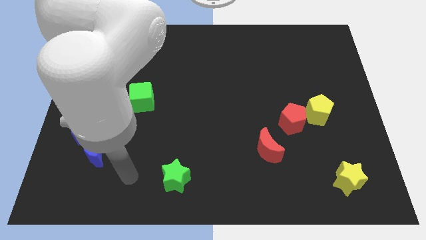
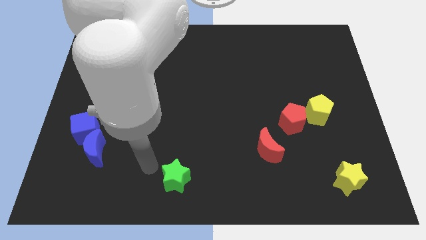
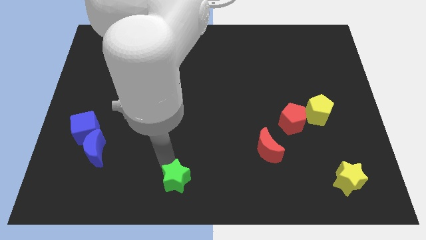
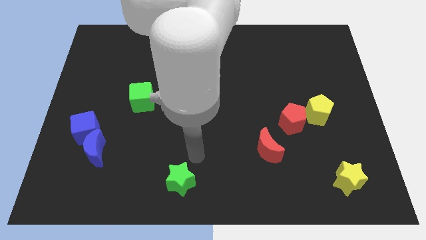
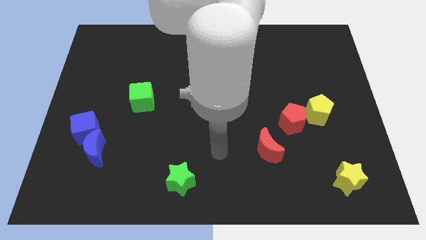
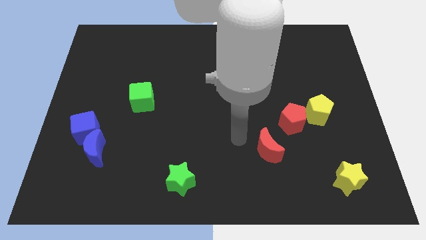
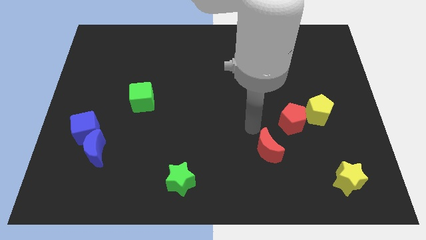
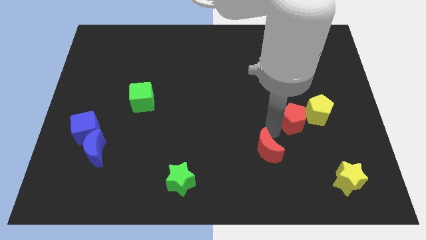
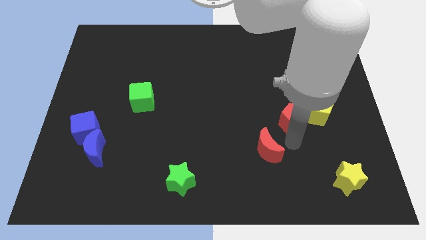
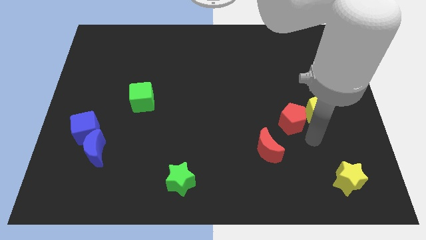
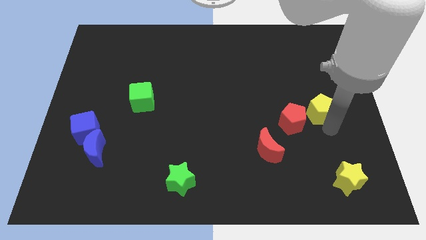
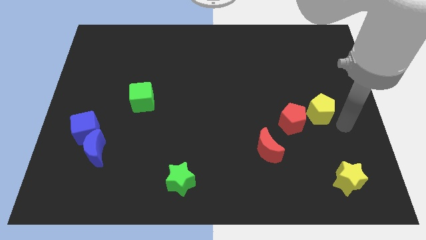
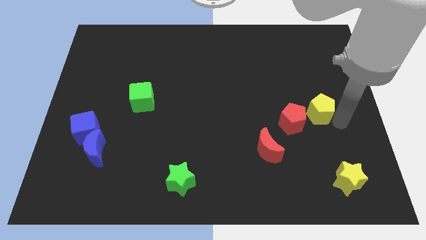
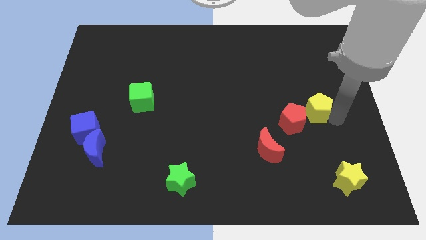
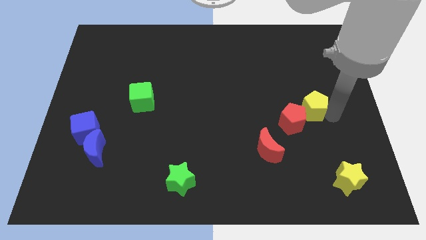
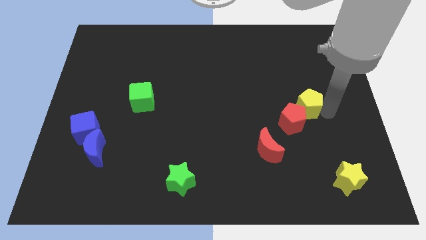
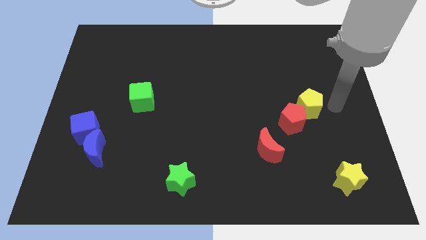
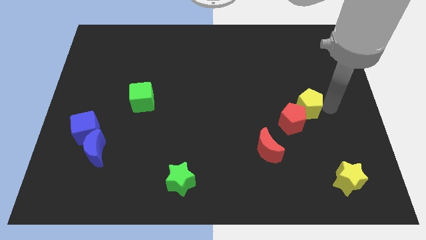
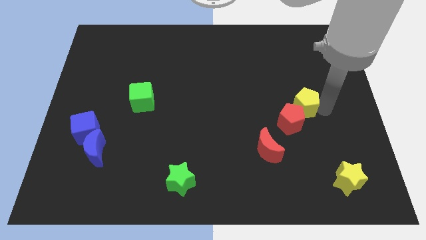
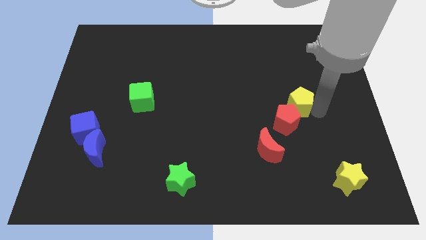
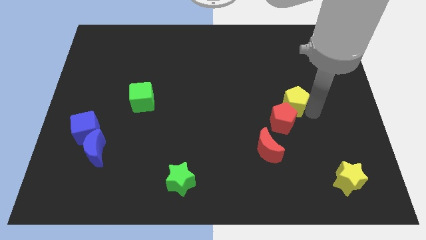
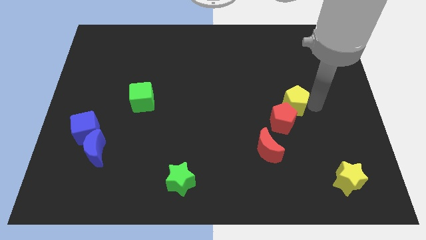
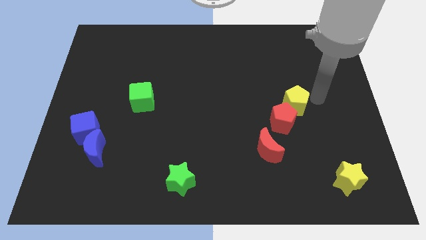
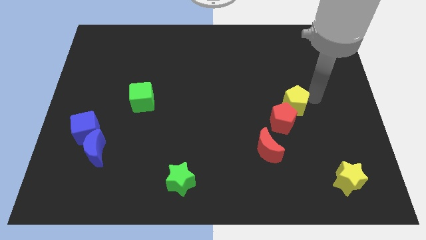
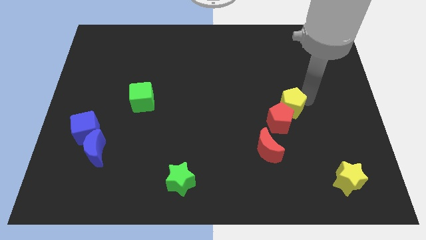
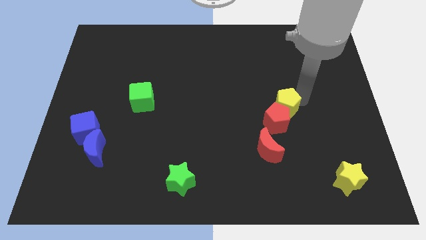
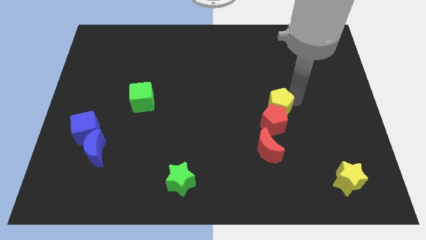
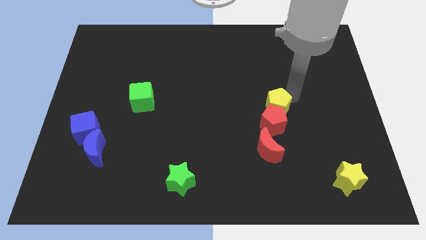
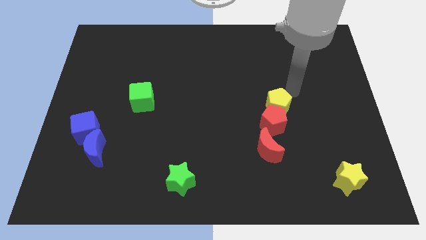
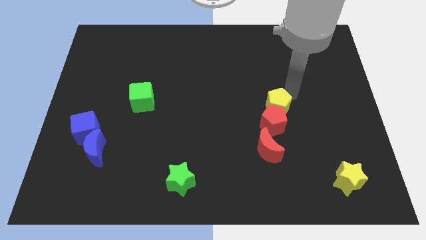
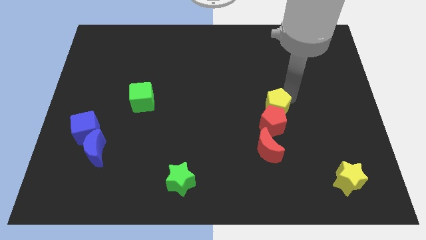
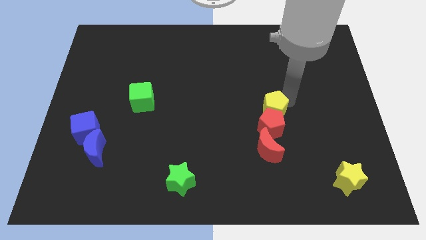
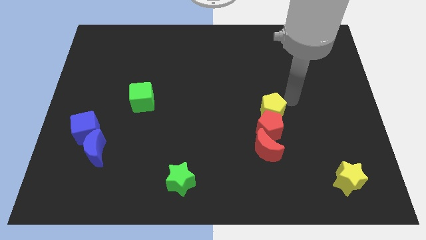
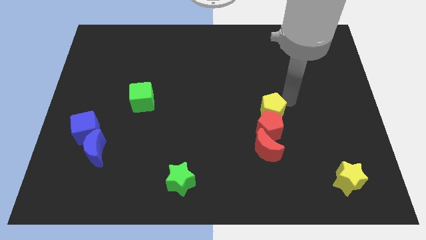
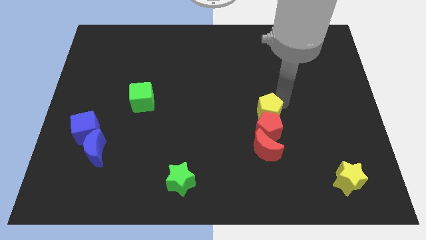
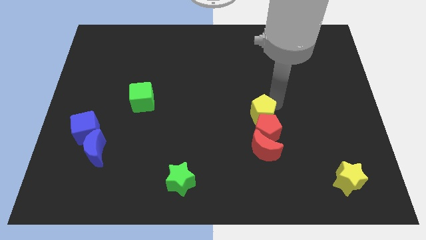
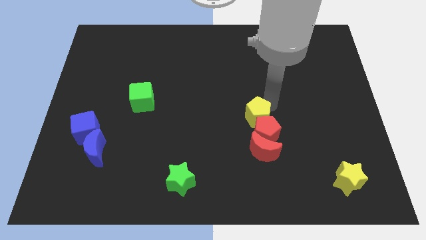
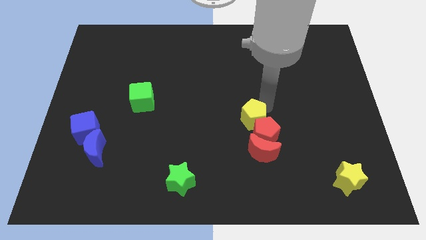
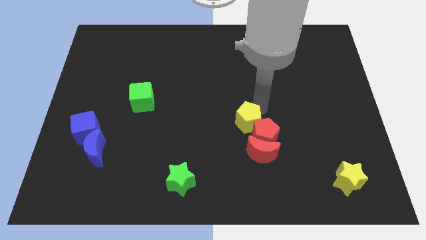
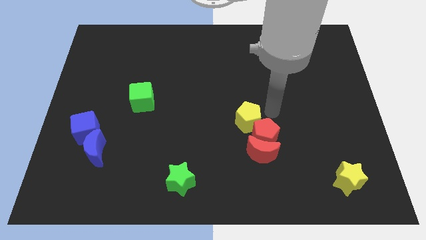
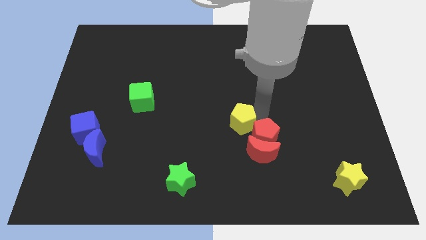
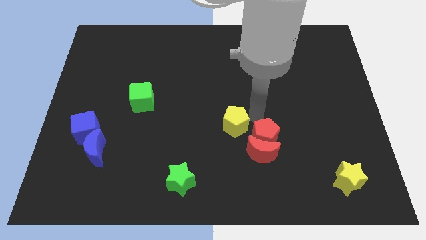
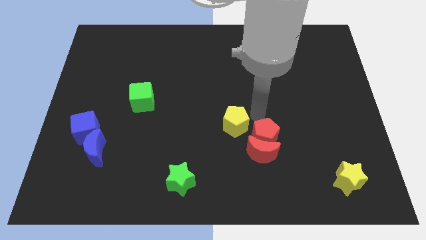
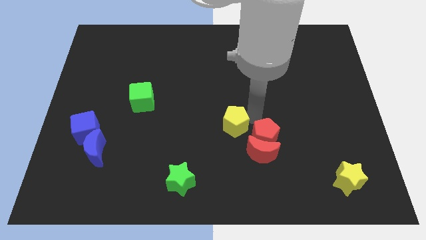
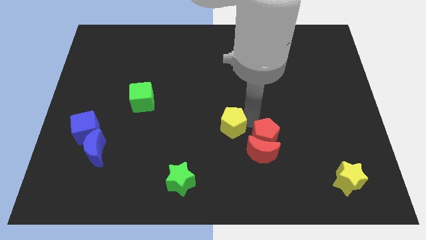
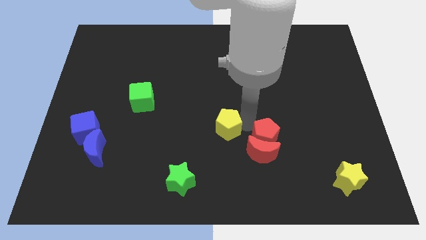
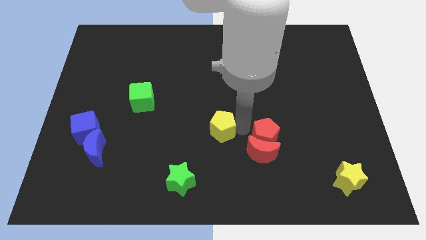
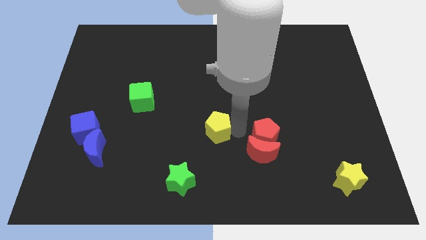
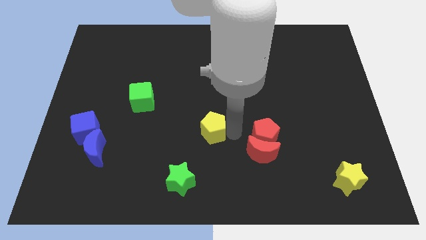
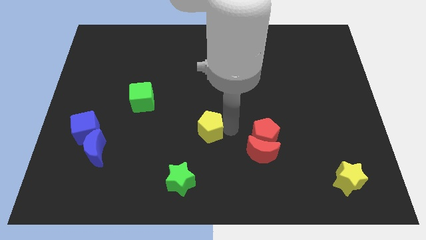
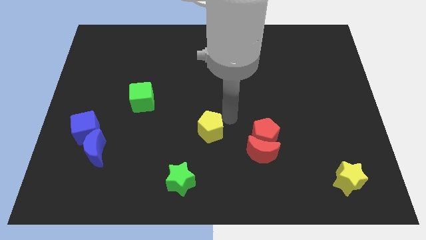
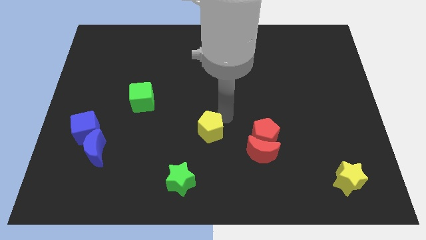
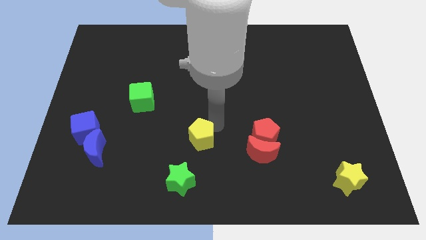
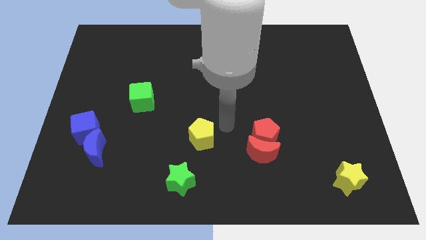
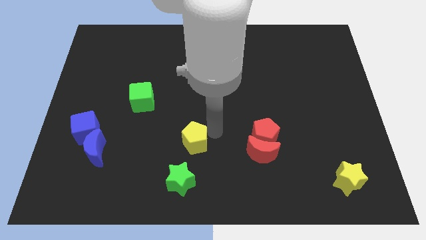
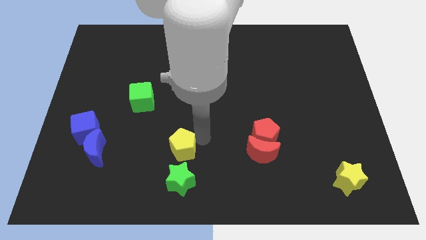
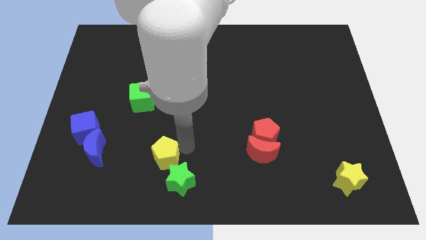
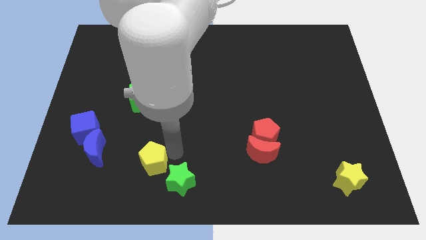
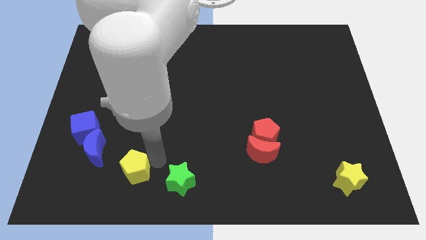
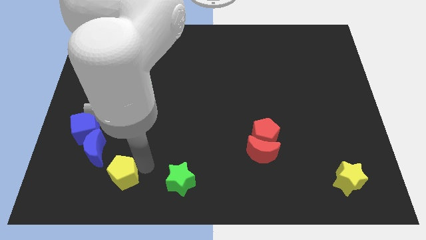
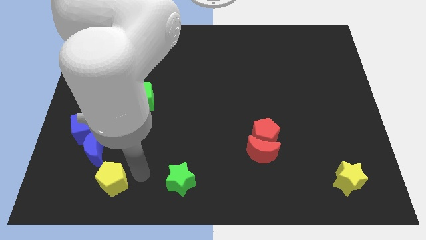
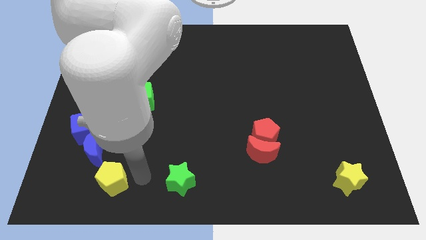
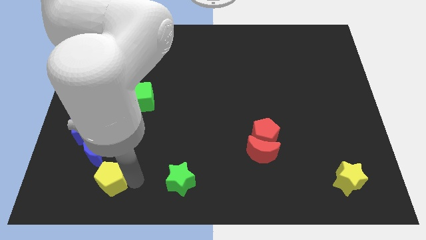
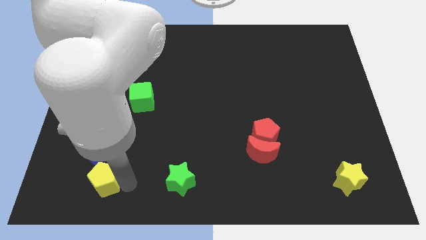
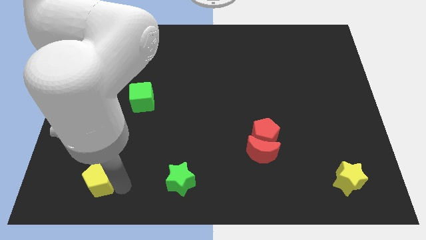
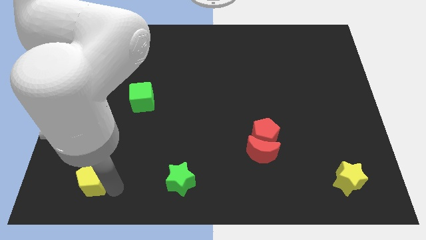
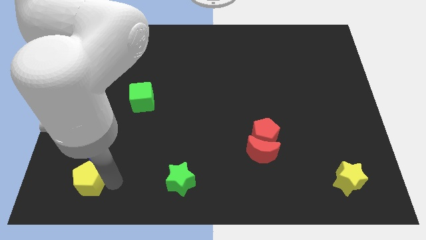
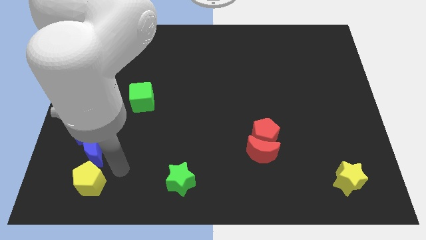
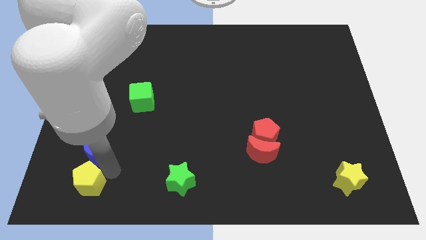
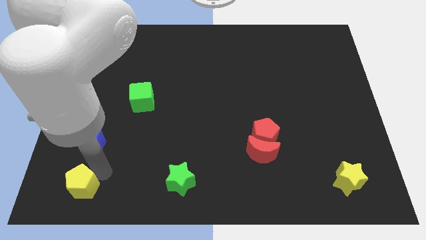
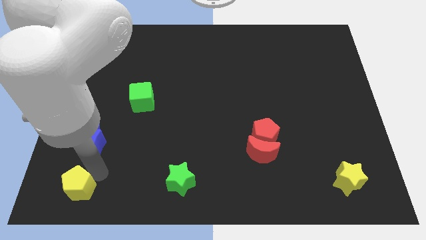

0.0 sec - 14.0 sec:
put the yellow pentagon to the bottom left corner
